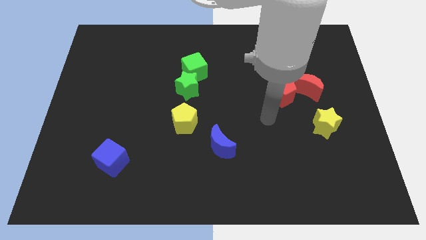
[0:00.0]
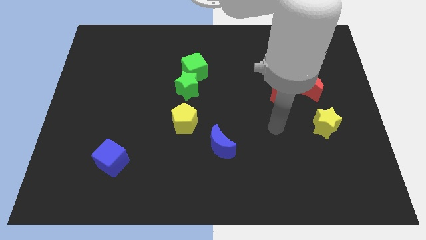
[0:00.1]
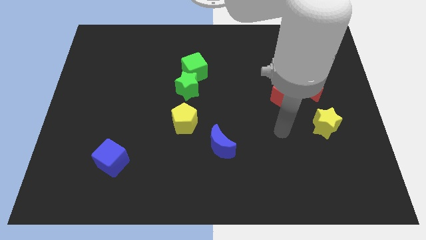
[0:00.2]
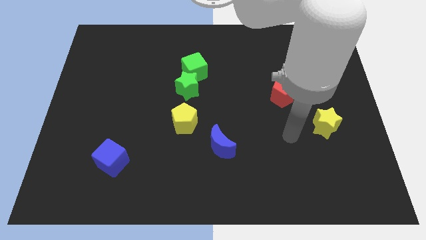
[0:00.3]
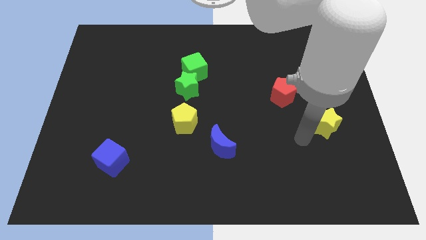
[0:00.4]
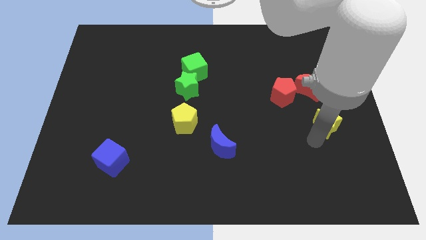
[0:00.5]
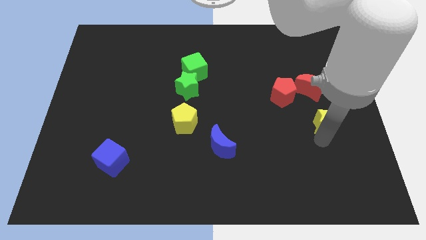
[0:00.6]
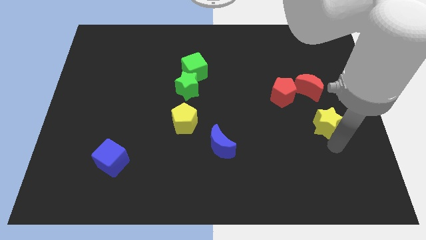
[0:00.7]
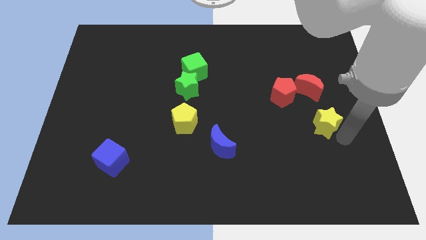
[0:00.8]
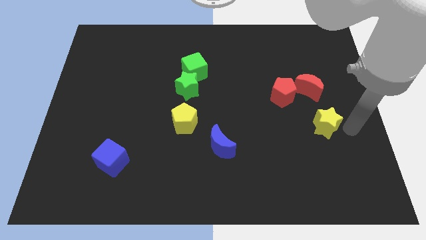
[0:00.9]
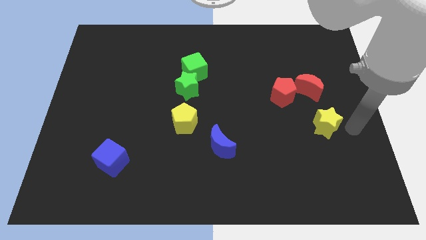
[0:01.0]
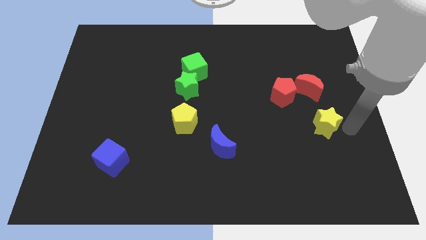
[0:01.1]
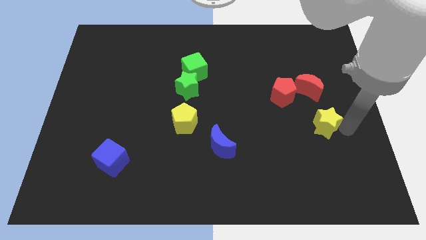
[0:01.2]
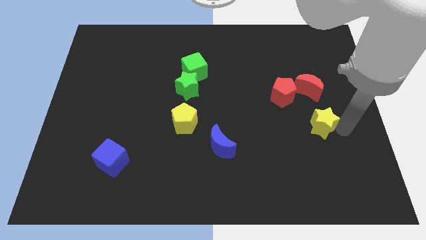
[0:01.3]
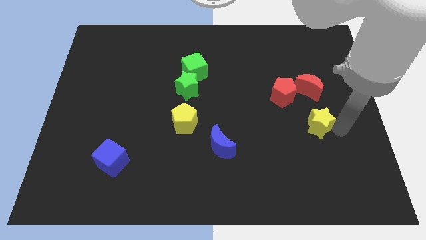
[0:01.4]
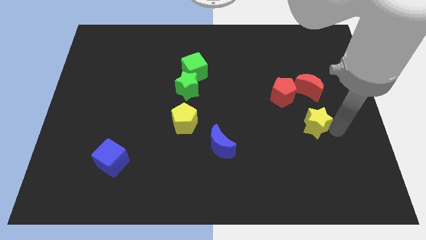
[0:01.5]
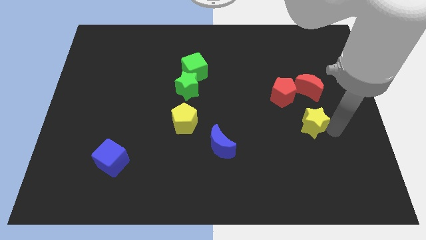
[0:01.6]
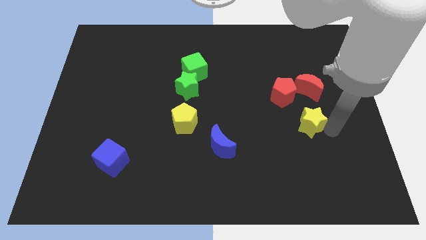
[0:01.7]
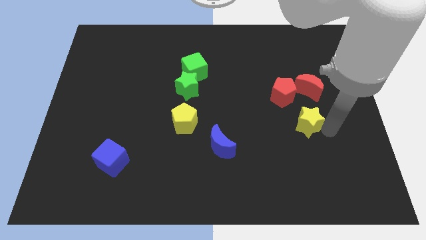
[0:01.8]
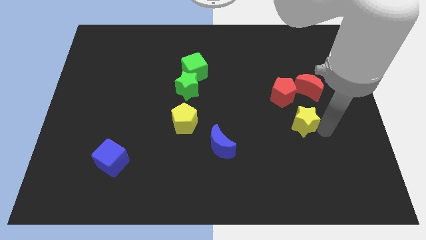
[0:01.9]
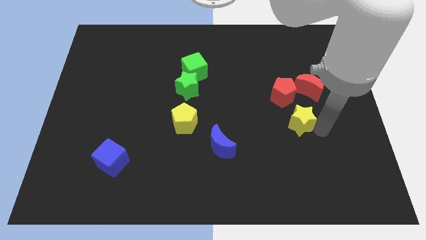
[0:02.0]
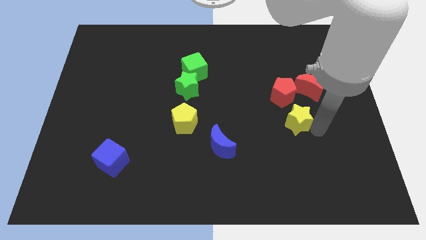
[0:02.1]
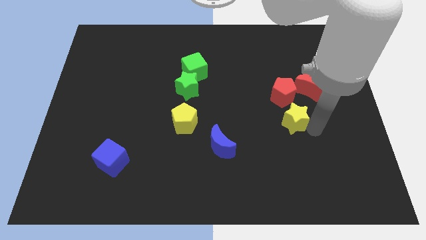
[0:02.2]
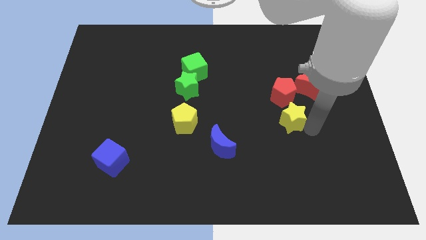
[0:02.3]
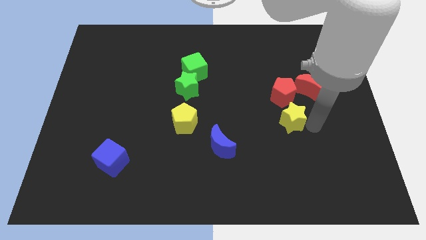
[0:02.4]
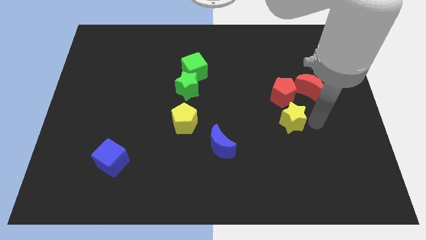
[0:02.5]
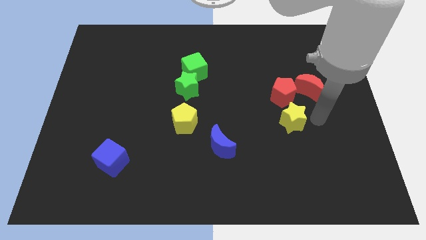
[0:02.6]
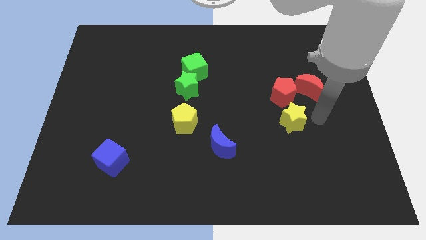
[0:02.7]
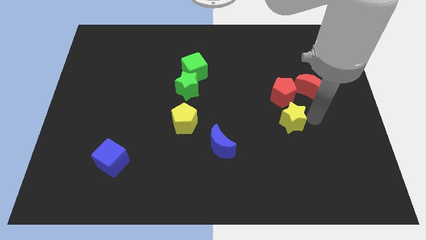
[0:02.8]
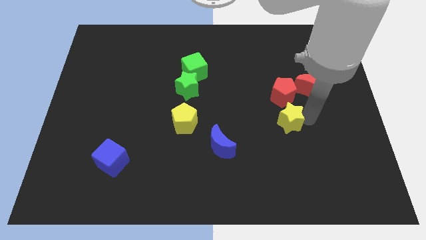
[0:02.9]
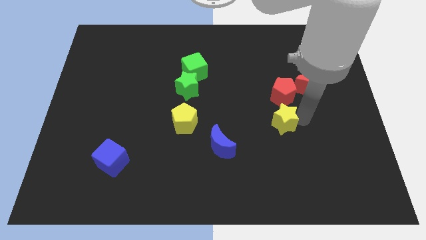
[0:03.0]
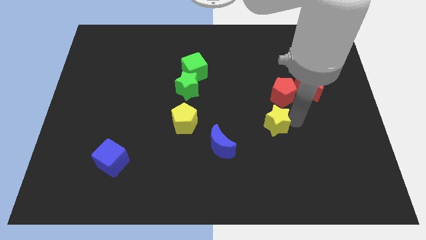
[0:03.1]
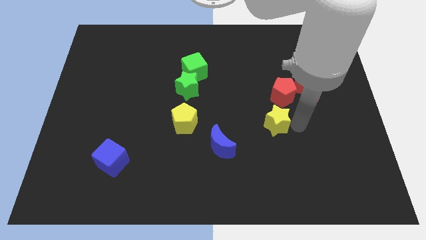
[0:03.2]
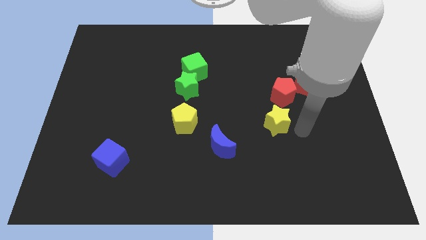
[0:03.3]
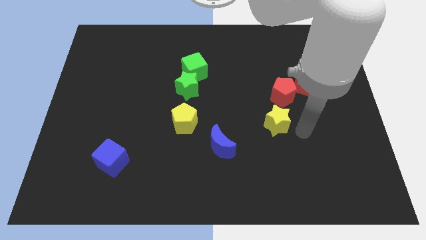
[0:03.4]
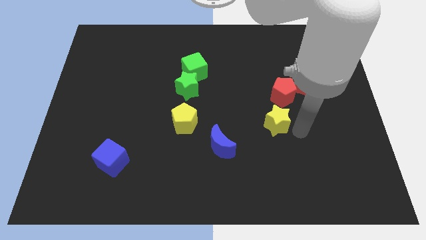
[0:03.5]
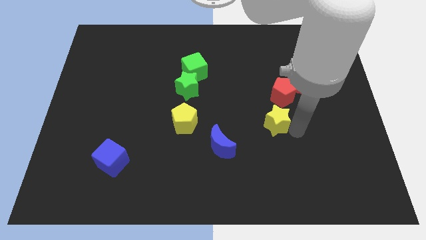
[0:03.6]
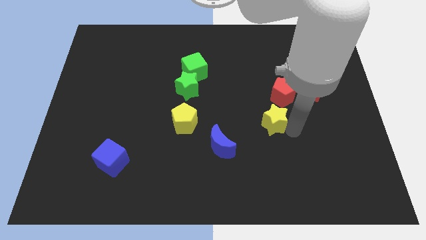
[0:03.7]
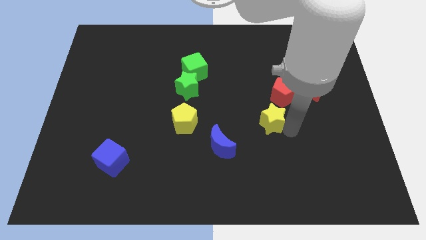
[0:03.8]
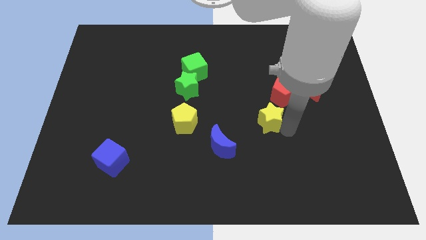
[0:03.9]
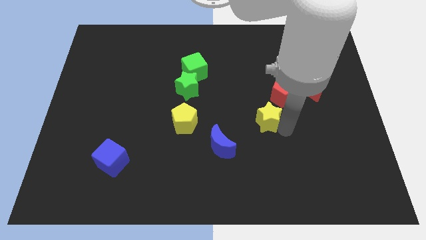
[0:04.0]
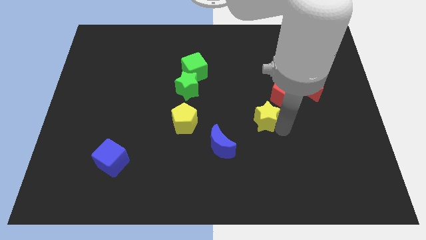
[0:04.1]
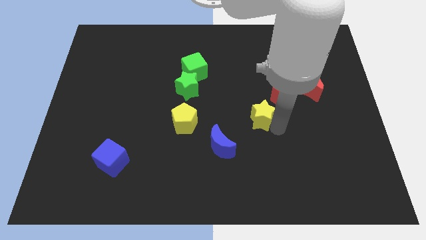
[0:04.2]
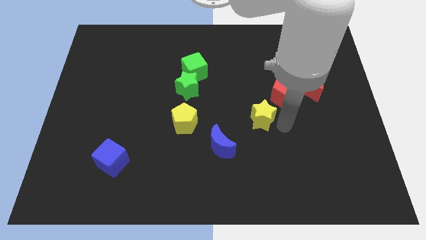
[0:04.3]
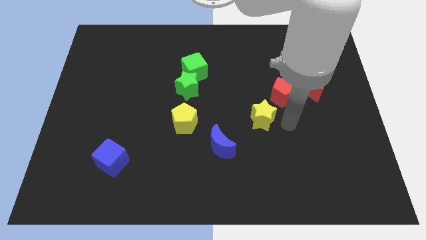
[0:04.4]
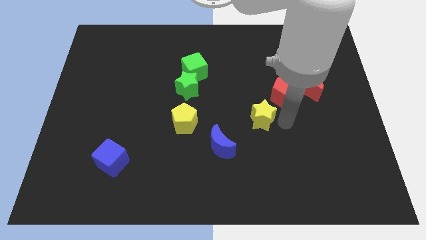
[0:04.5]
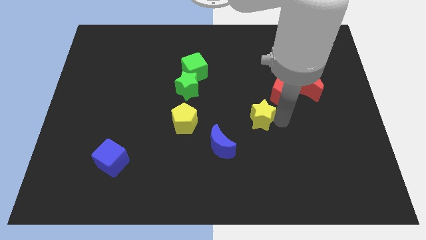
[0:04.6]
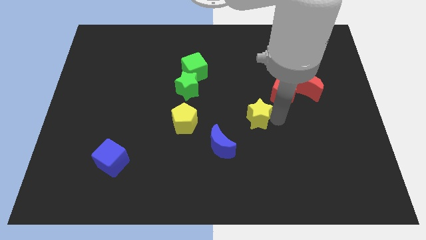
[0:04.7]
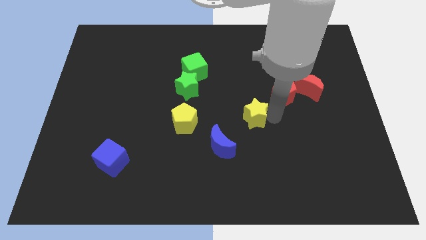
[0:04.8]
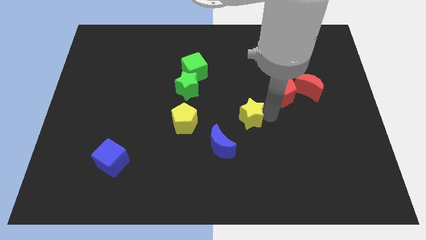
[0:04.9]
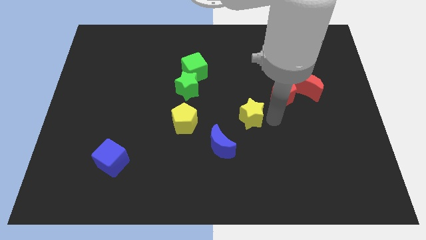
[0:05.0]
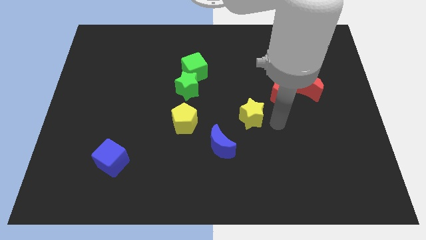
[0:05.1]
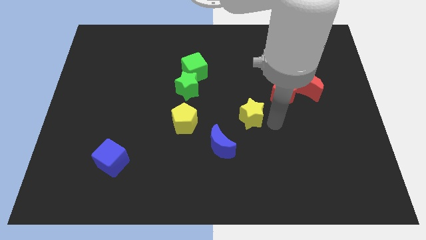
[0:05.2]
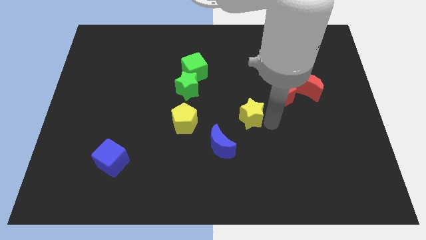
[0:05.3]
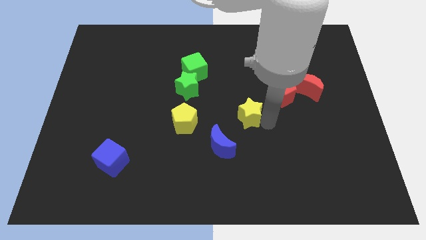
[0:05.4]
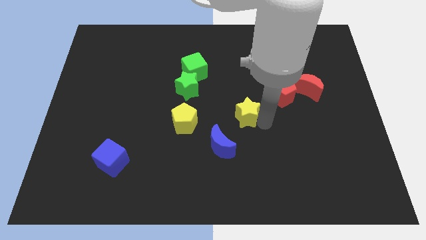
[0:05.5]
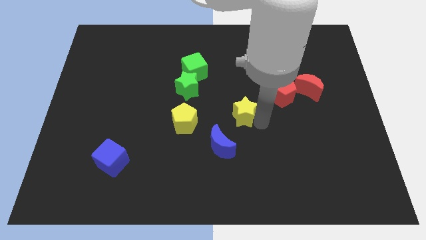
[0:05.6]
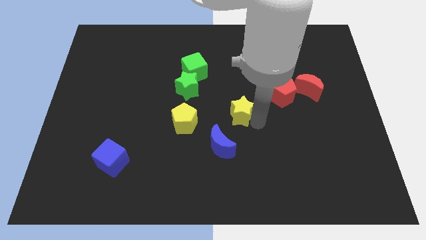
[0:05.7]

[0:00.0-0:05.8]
put the yellow star above the blue moon

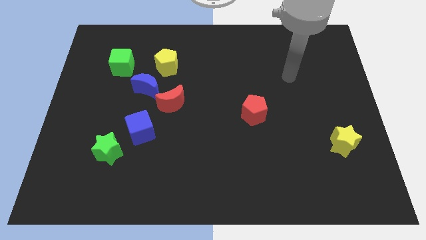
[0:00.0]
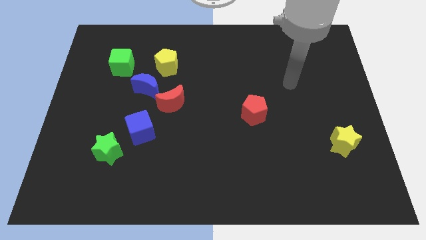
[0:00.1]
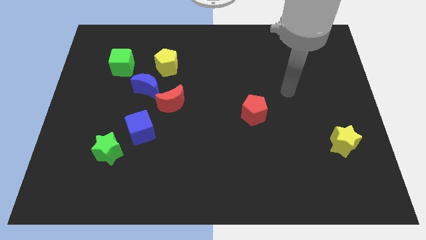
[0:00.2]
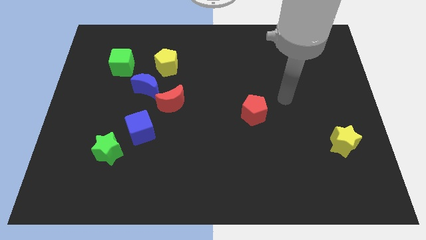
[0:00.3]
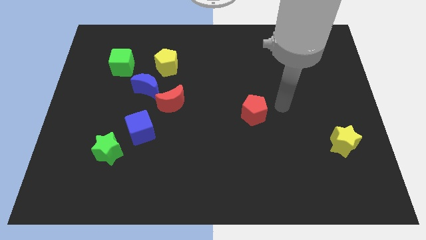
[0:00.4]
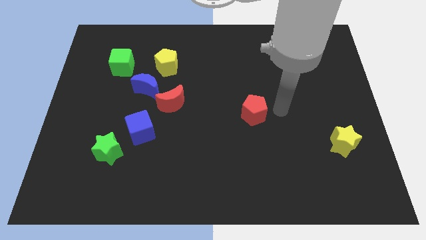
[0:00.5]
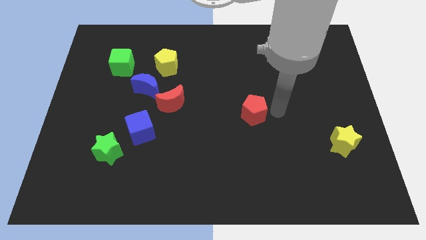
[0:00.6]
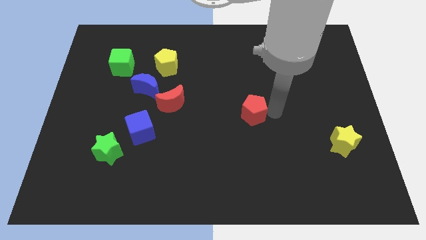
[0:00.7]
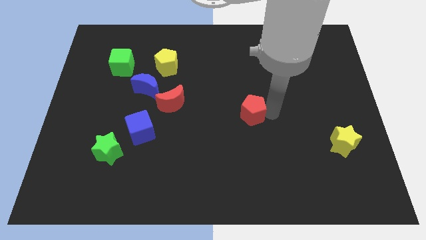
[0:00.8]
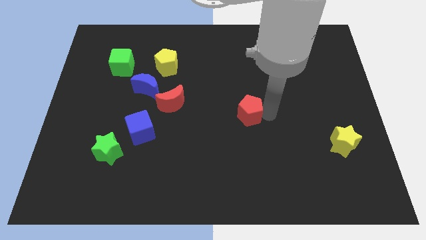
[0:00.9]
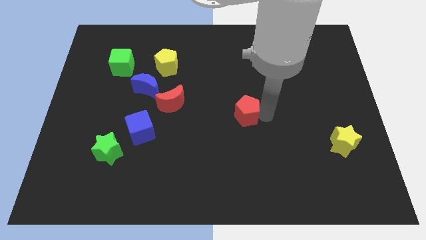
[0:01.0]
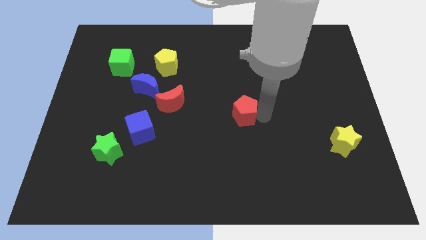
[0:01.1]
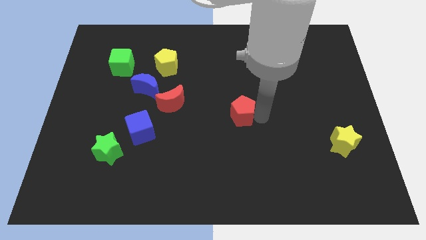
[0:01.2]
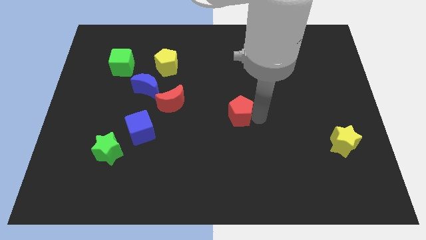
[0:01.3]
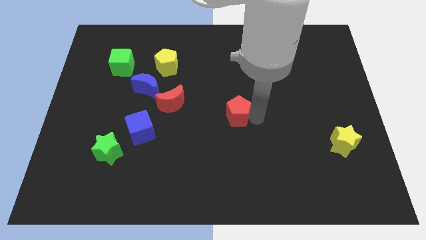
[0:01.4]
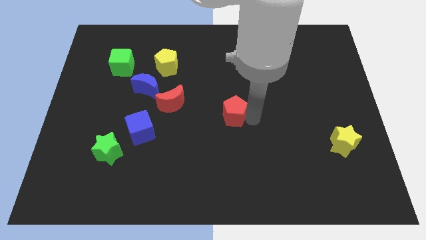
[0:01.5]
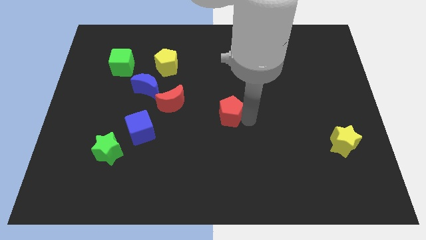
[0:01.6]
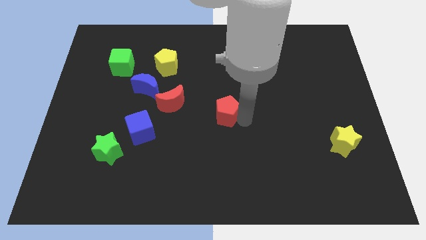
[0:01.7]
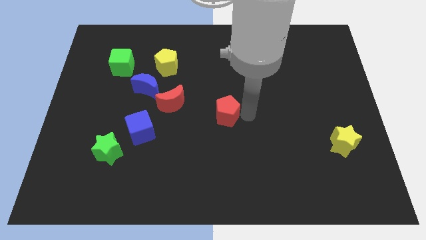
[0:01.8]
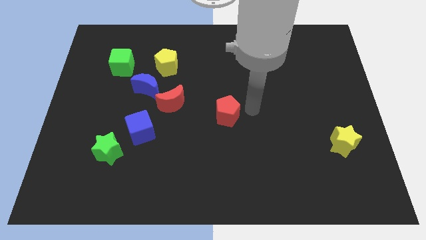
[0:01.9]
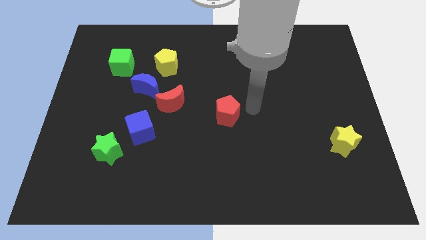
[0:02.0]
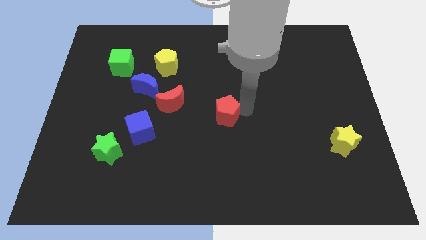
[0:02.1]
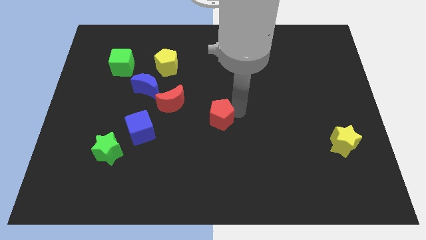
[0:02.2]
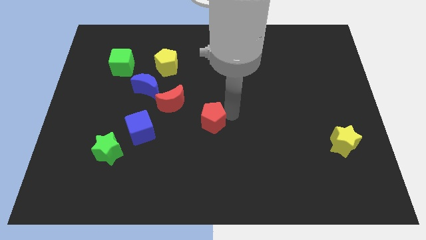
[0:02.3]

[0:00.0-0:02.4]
put the red pentagon to the bottom right of the red moon

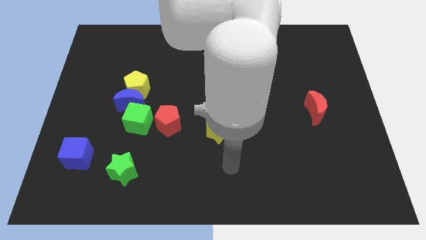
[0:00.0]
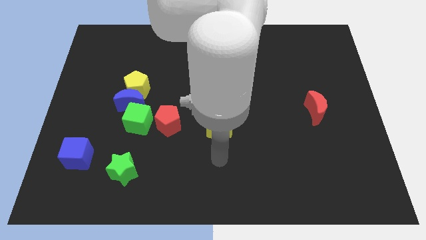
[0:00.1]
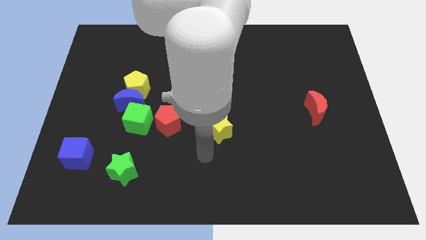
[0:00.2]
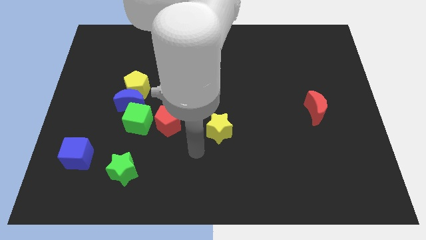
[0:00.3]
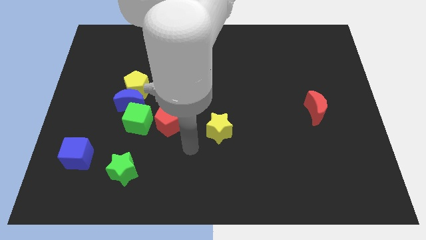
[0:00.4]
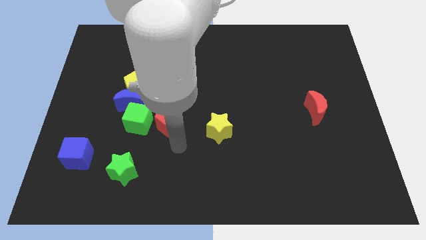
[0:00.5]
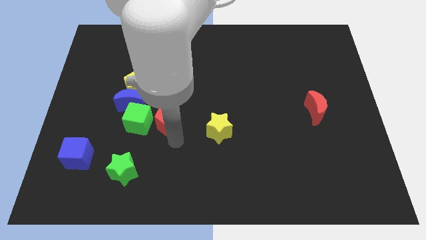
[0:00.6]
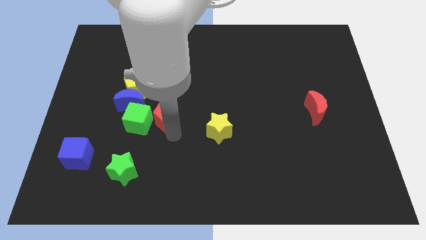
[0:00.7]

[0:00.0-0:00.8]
put the red pentagon diagonally up and to the right of the green cube
